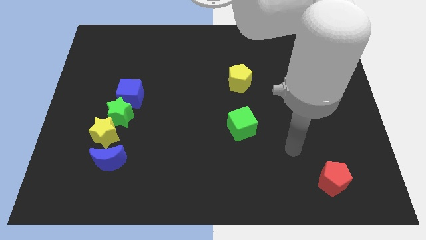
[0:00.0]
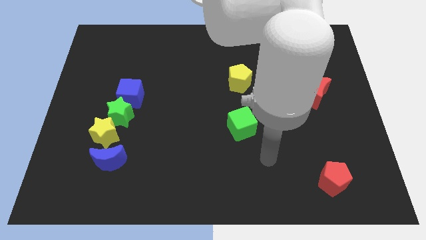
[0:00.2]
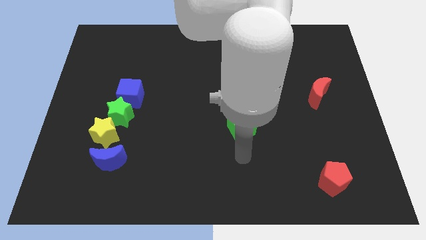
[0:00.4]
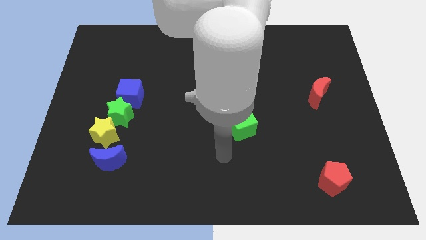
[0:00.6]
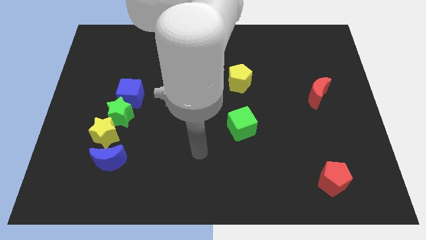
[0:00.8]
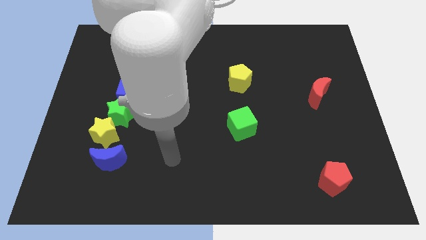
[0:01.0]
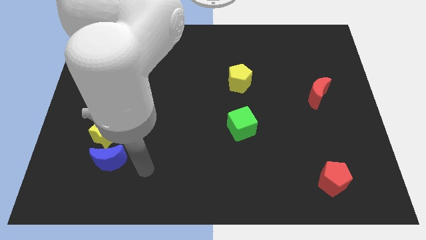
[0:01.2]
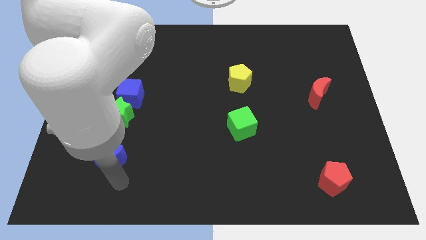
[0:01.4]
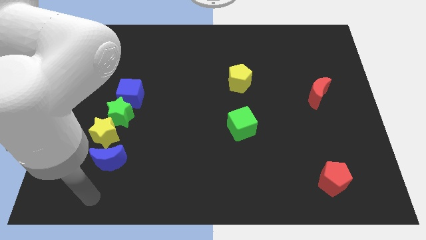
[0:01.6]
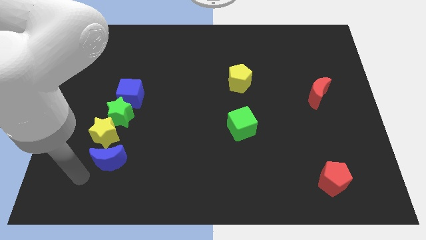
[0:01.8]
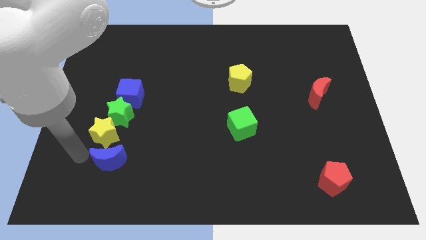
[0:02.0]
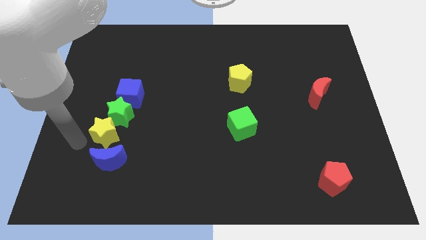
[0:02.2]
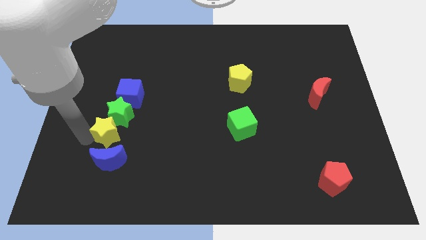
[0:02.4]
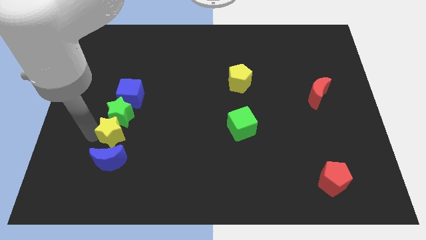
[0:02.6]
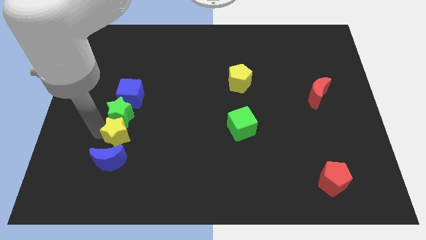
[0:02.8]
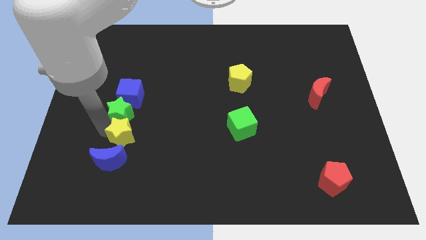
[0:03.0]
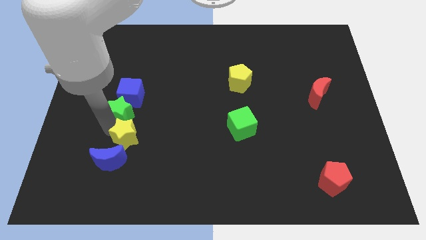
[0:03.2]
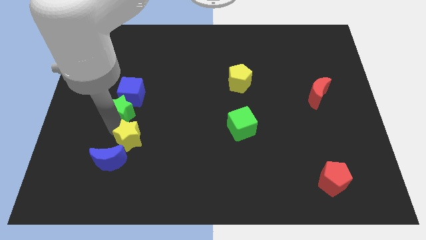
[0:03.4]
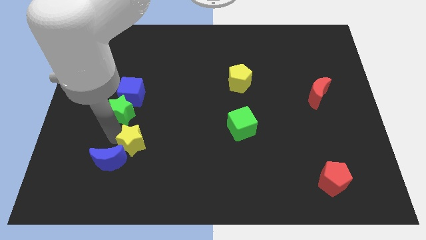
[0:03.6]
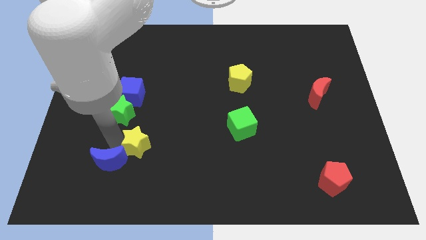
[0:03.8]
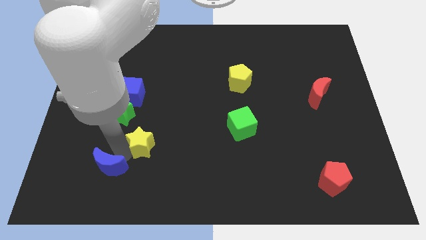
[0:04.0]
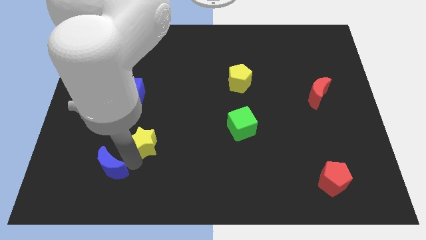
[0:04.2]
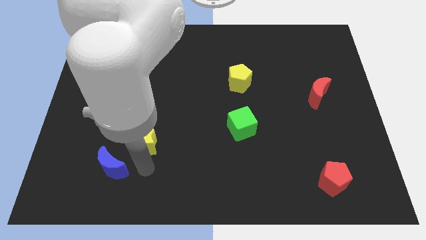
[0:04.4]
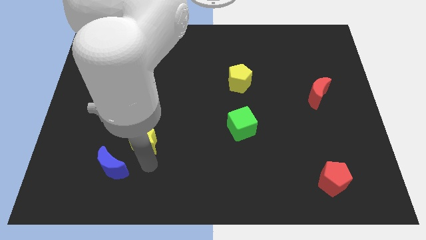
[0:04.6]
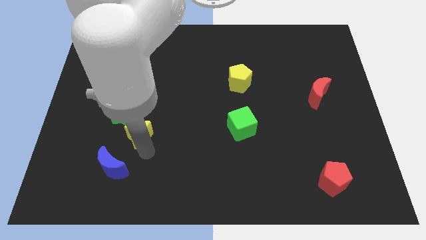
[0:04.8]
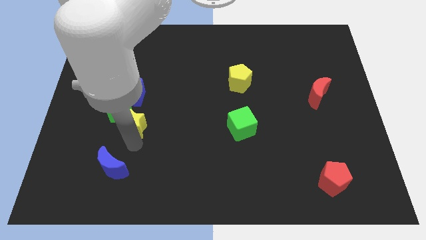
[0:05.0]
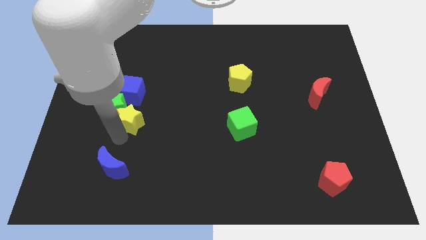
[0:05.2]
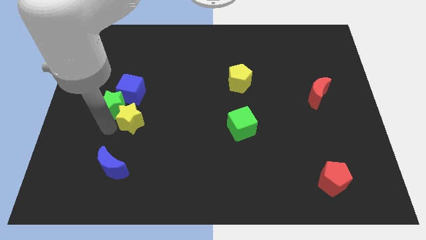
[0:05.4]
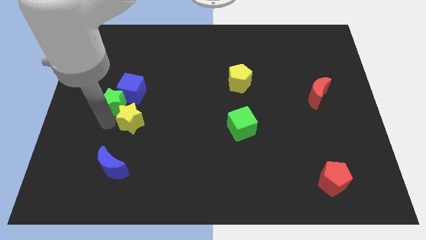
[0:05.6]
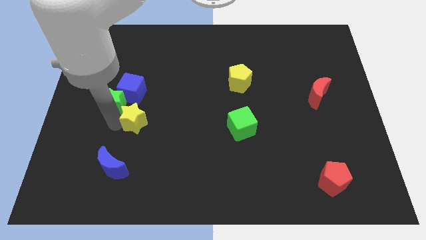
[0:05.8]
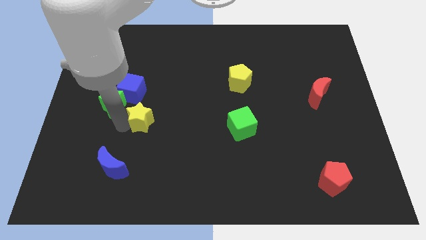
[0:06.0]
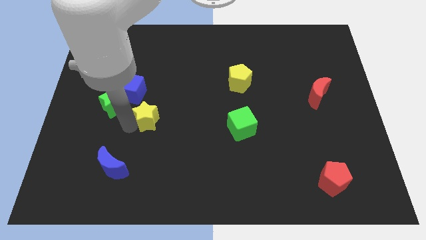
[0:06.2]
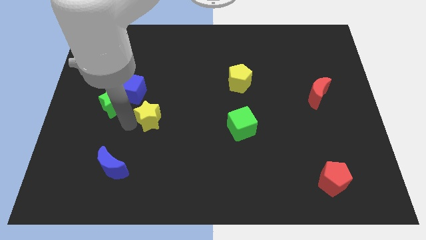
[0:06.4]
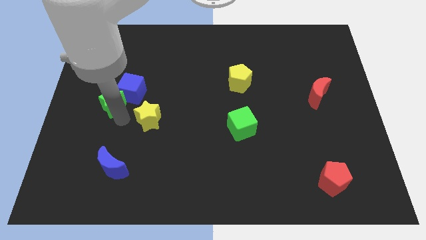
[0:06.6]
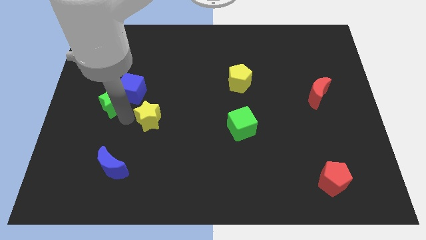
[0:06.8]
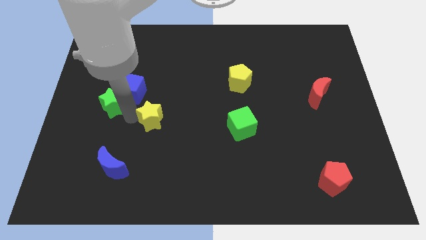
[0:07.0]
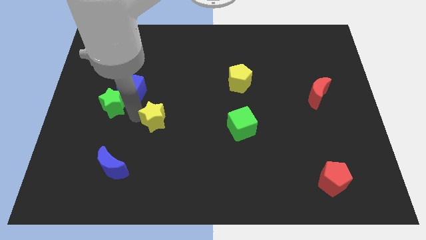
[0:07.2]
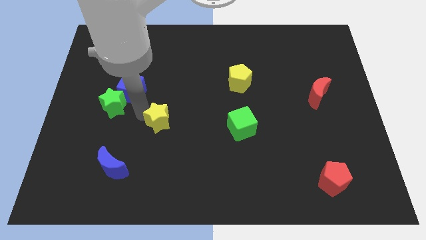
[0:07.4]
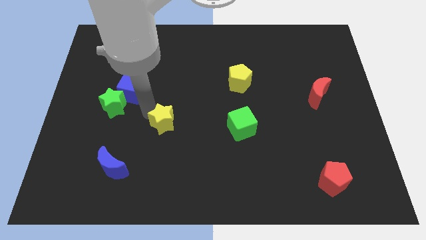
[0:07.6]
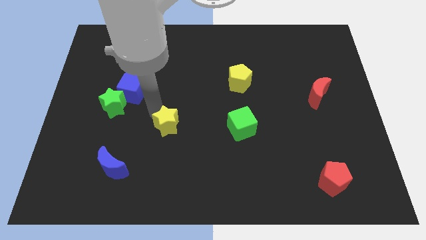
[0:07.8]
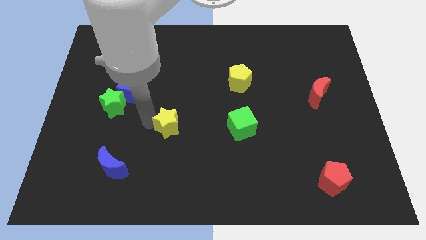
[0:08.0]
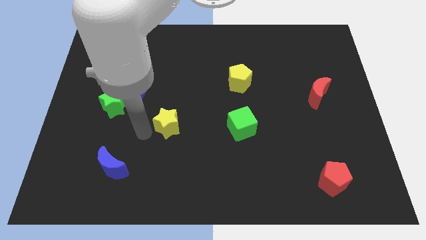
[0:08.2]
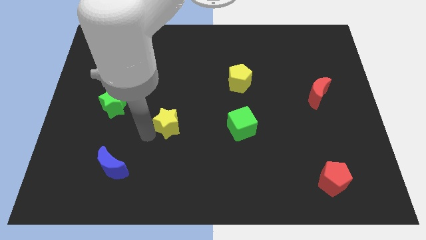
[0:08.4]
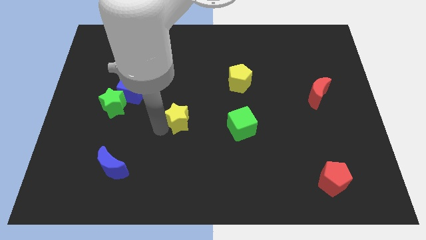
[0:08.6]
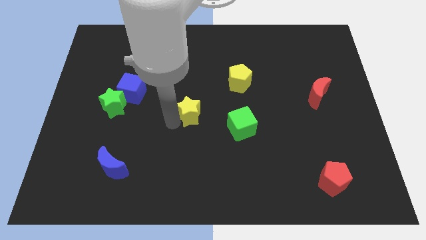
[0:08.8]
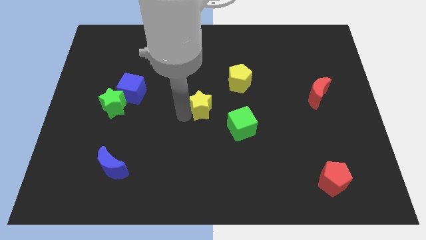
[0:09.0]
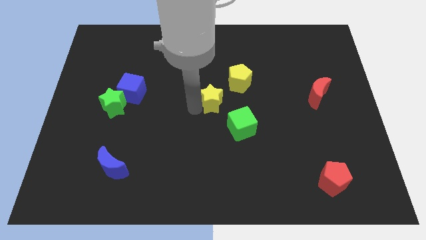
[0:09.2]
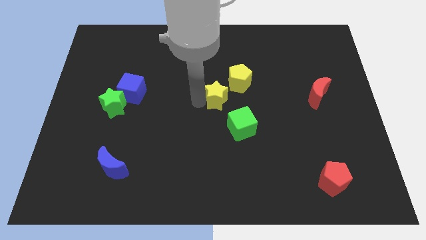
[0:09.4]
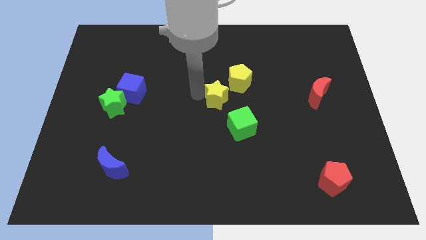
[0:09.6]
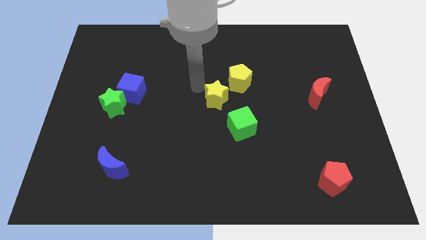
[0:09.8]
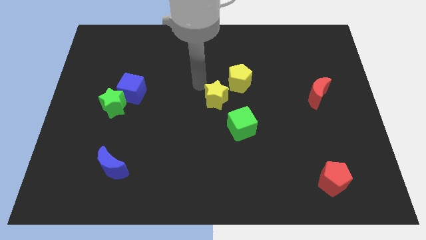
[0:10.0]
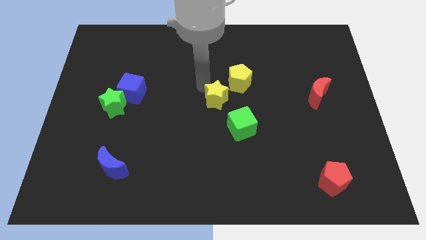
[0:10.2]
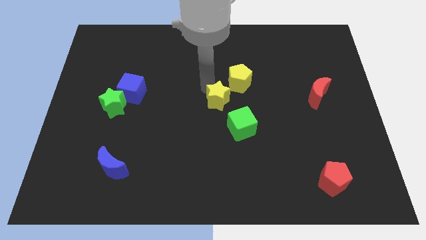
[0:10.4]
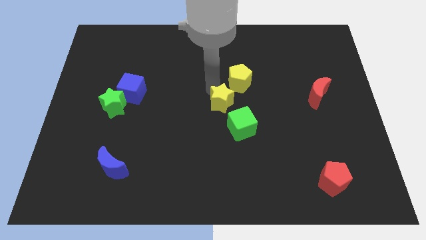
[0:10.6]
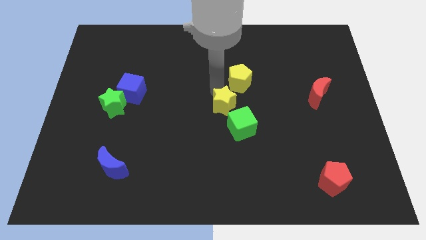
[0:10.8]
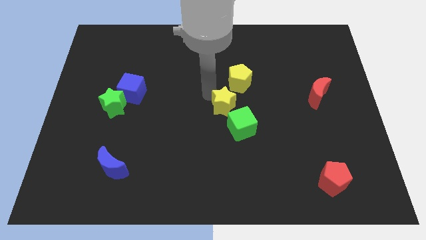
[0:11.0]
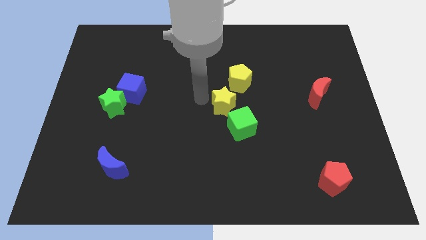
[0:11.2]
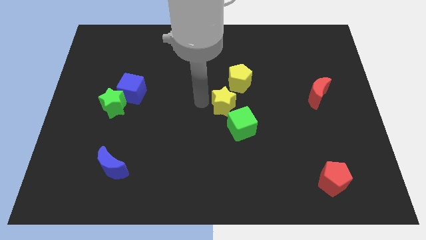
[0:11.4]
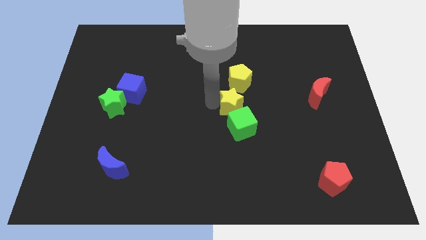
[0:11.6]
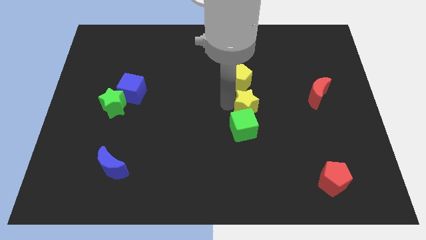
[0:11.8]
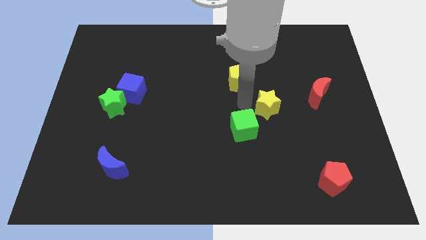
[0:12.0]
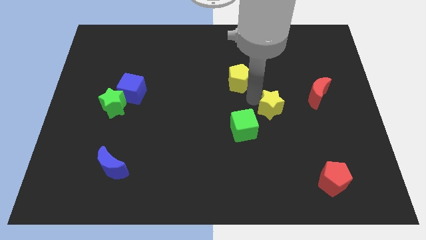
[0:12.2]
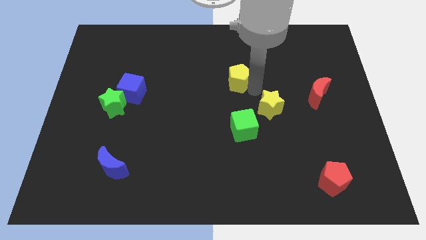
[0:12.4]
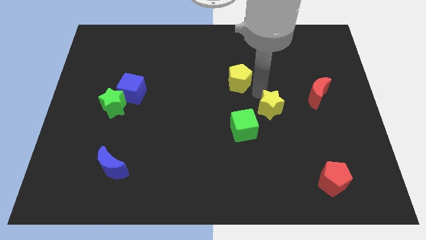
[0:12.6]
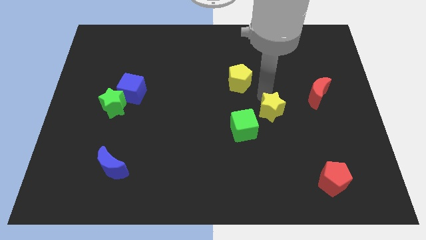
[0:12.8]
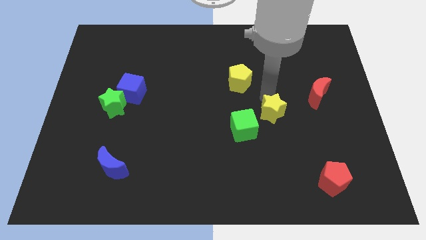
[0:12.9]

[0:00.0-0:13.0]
move the yellow star to the right side of the green cube

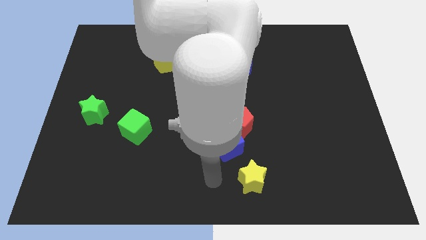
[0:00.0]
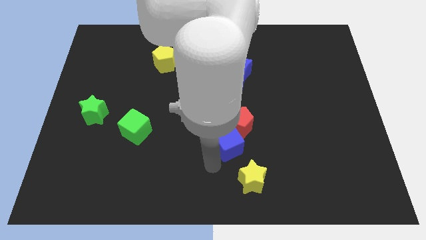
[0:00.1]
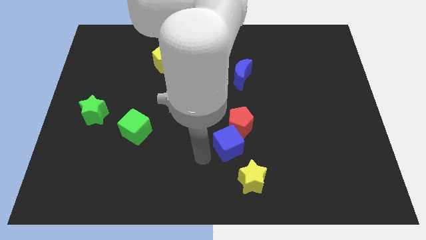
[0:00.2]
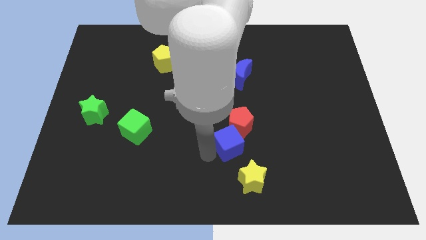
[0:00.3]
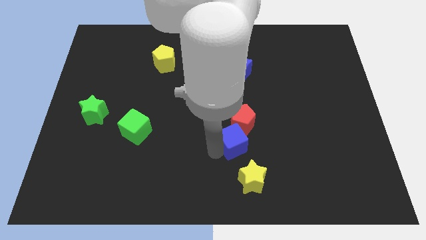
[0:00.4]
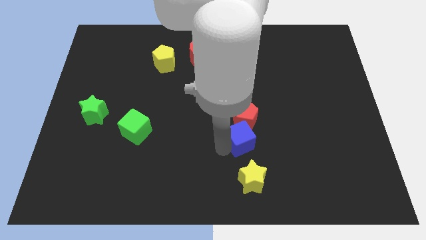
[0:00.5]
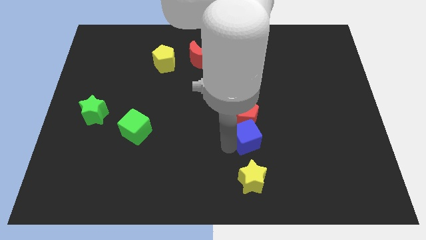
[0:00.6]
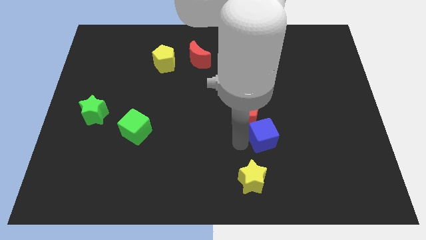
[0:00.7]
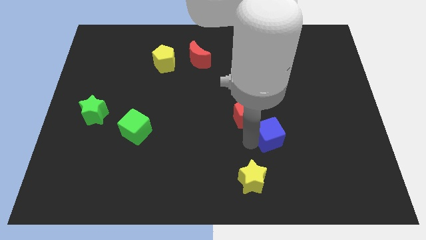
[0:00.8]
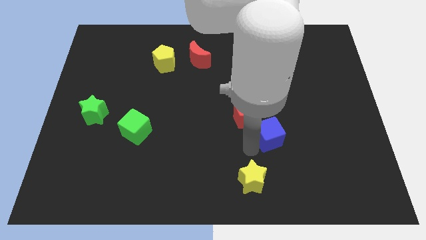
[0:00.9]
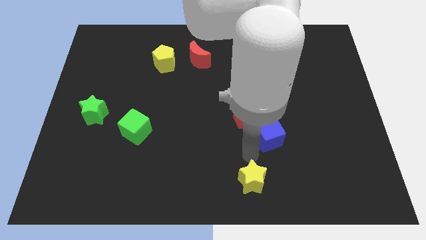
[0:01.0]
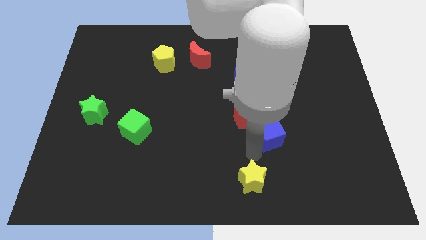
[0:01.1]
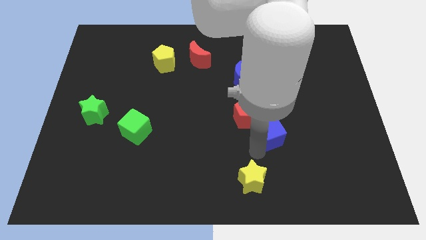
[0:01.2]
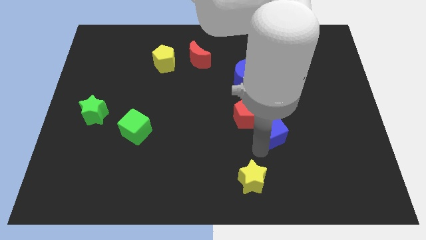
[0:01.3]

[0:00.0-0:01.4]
push the blue cube just right of the red pentagon
